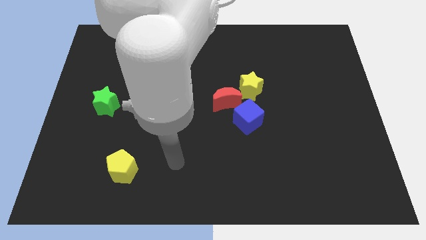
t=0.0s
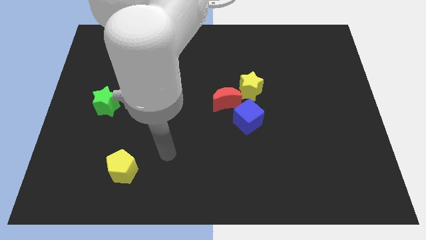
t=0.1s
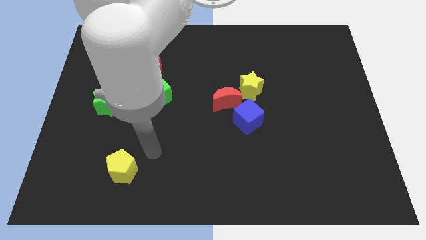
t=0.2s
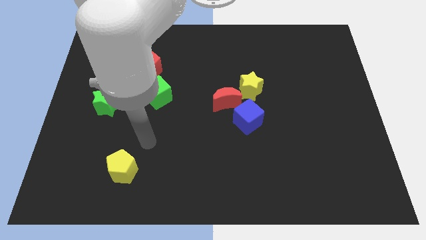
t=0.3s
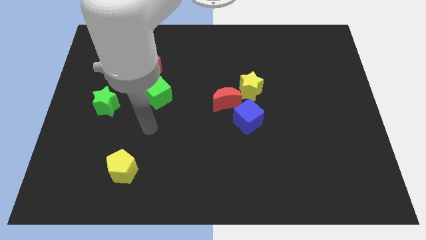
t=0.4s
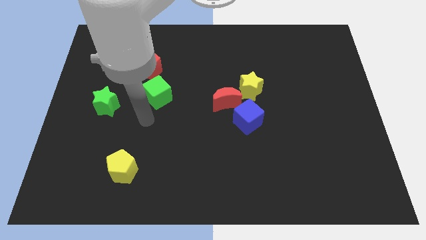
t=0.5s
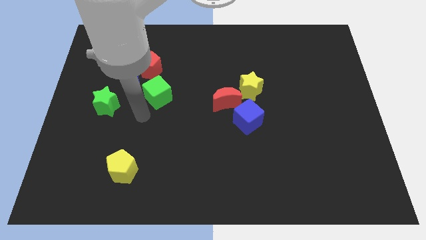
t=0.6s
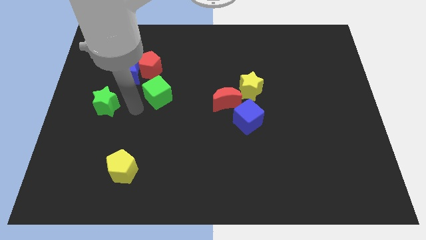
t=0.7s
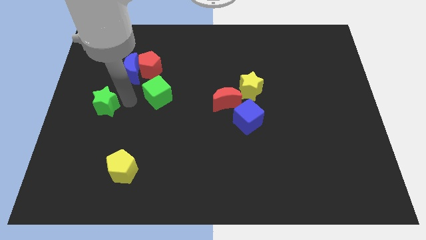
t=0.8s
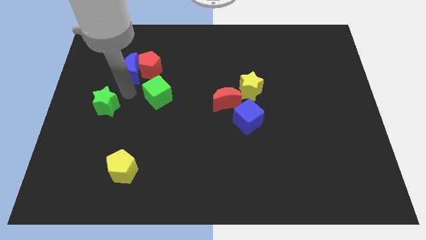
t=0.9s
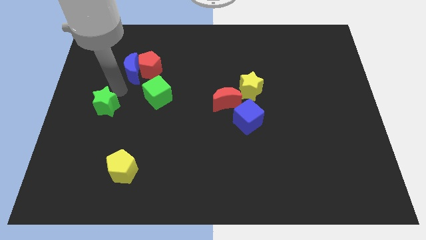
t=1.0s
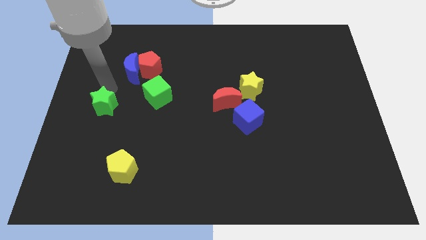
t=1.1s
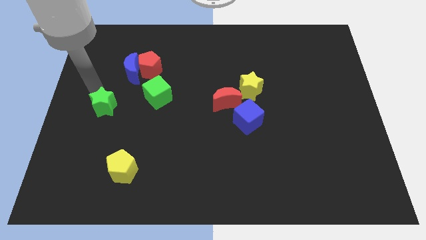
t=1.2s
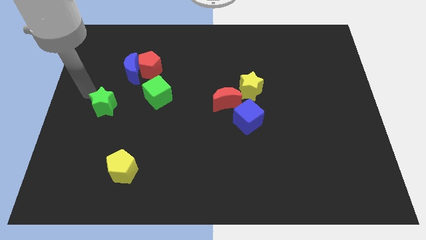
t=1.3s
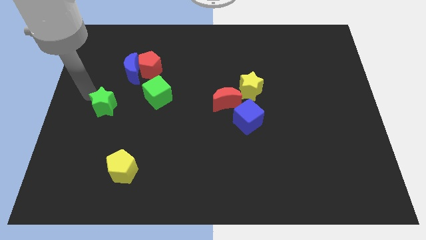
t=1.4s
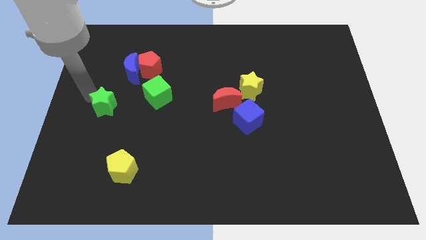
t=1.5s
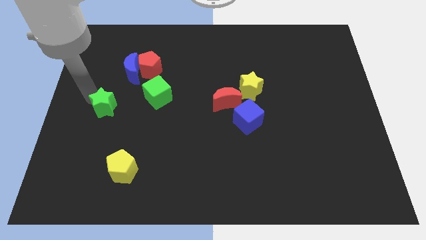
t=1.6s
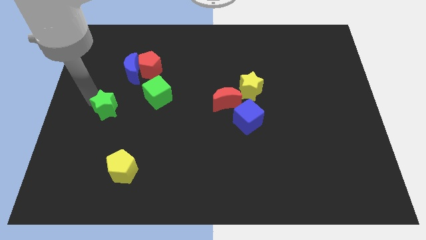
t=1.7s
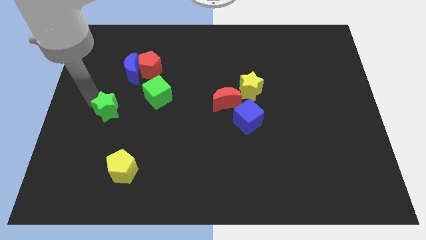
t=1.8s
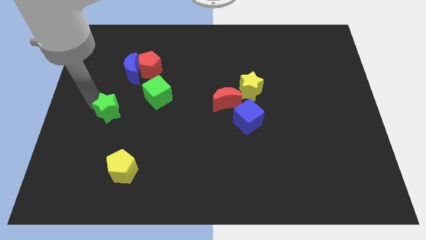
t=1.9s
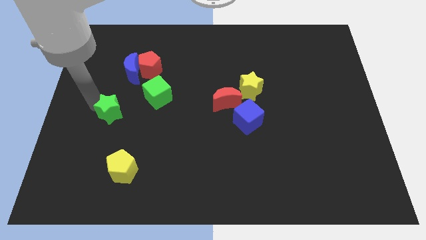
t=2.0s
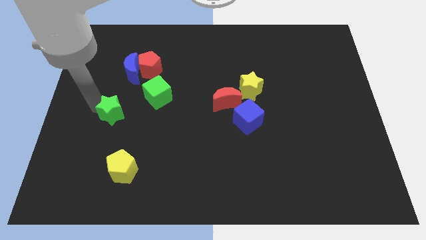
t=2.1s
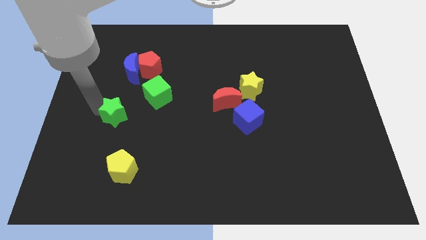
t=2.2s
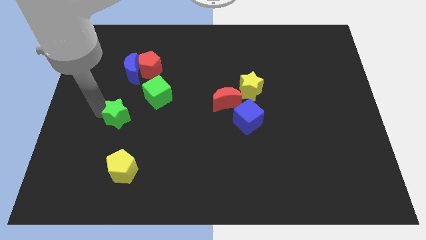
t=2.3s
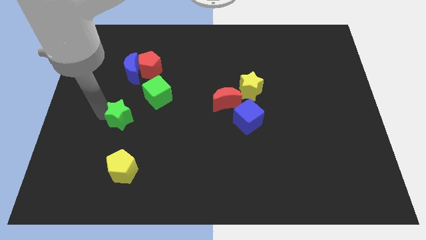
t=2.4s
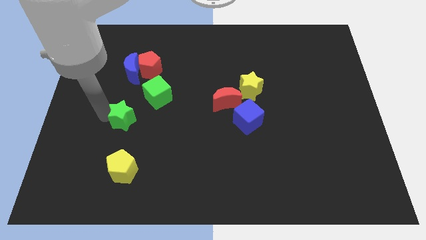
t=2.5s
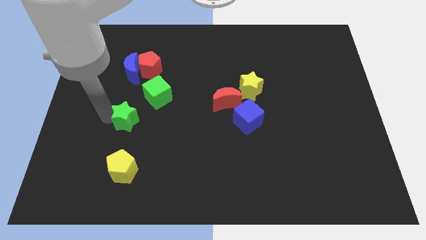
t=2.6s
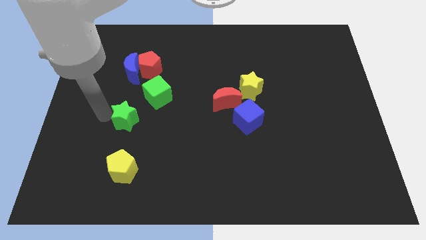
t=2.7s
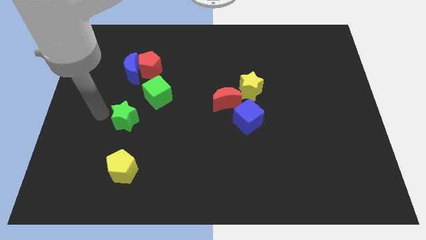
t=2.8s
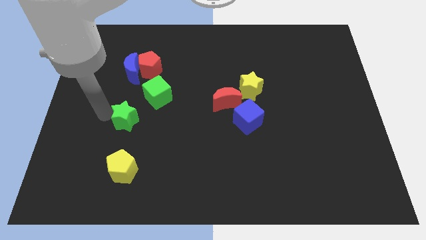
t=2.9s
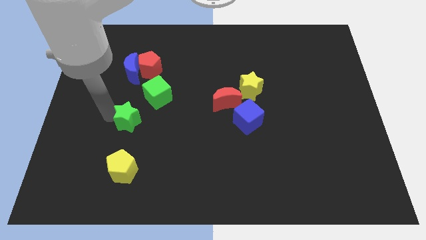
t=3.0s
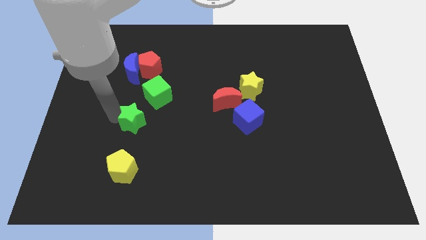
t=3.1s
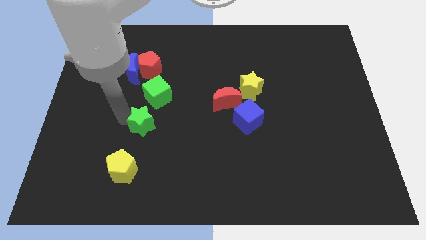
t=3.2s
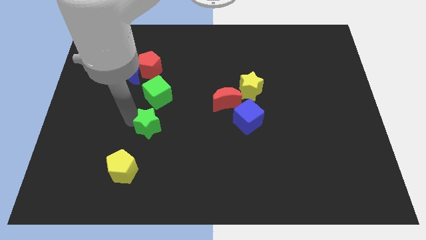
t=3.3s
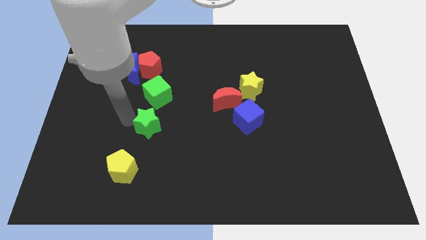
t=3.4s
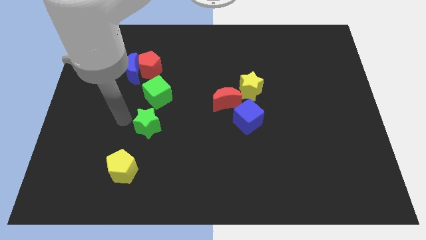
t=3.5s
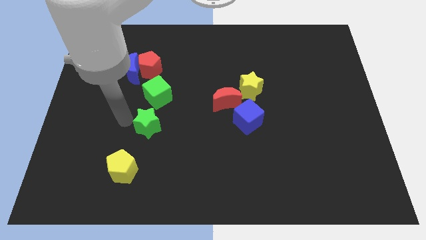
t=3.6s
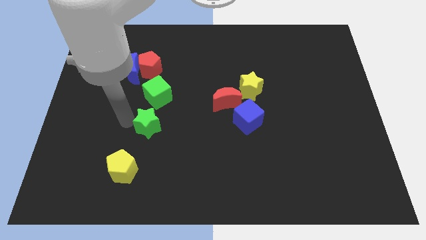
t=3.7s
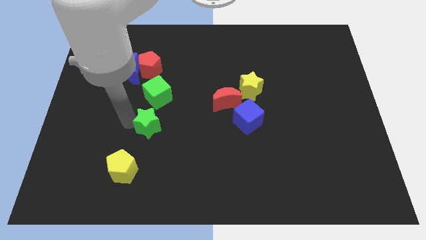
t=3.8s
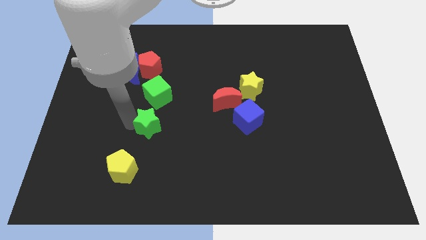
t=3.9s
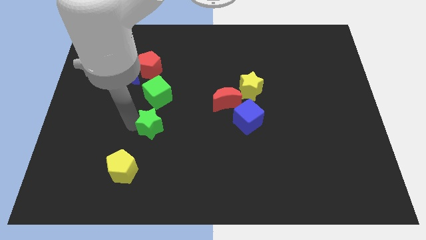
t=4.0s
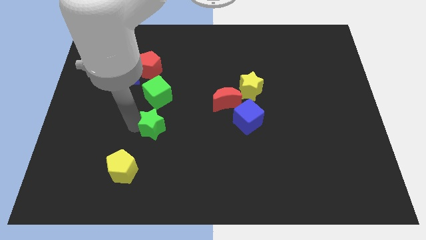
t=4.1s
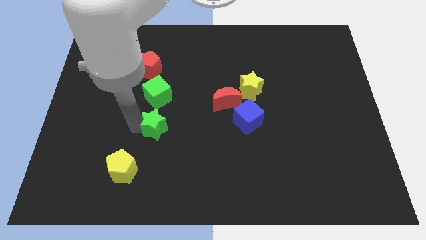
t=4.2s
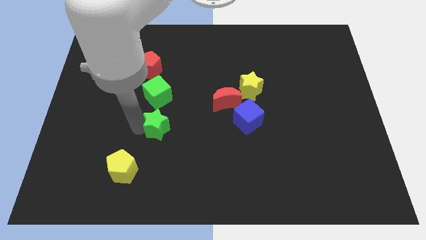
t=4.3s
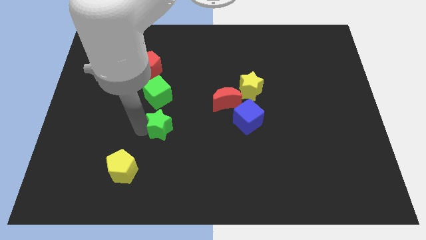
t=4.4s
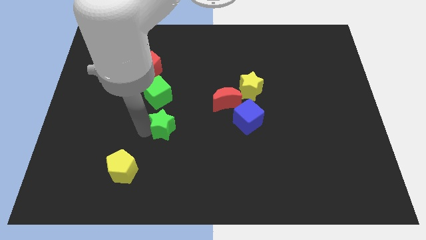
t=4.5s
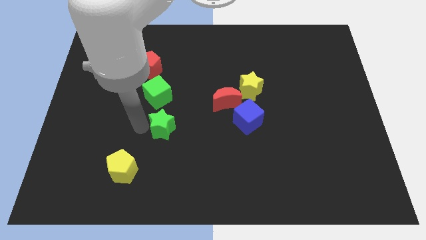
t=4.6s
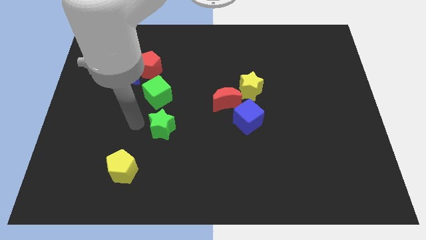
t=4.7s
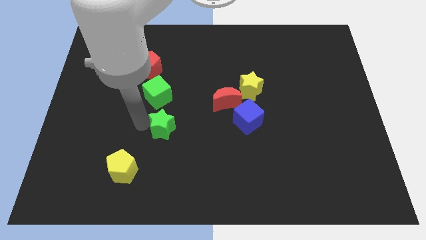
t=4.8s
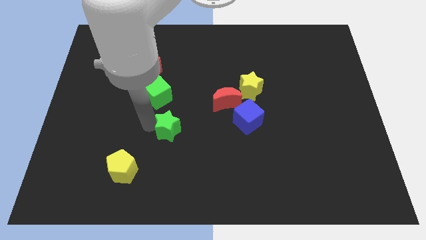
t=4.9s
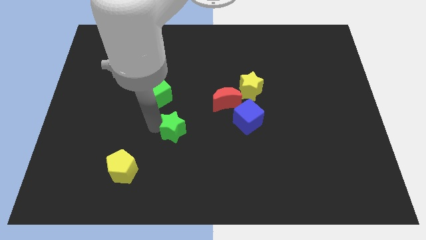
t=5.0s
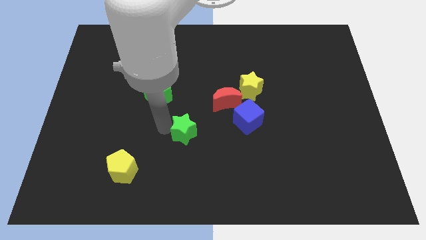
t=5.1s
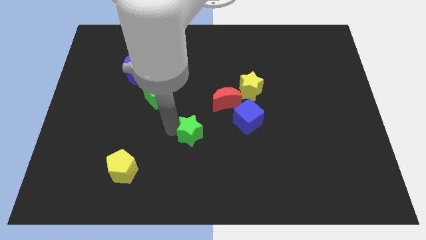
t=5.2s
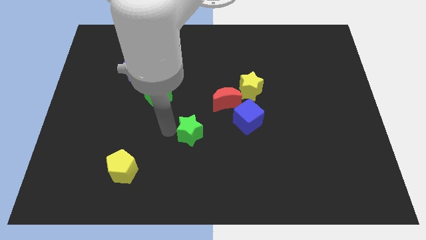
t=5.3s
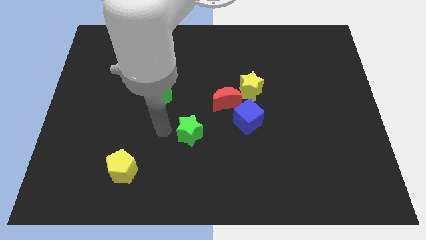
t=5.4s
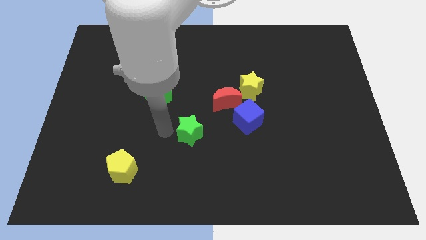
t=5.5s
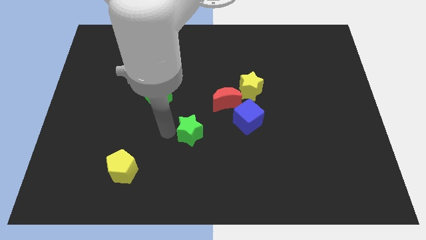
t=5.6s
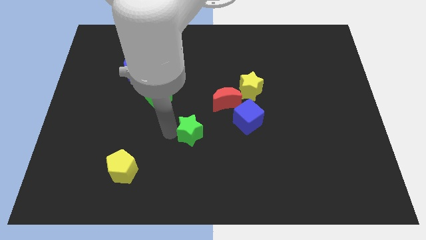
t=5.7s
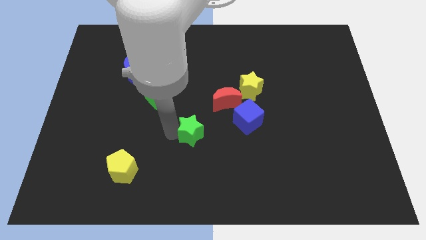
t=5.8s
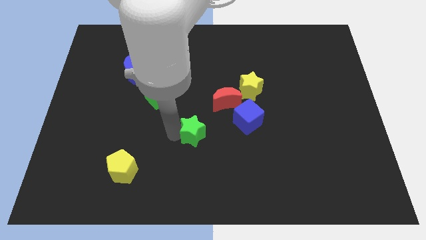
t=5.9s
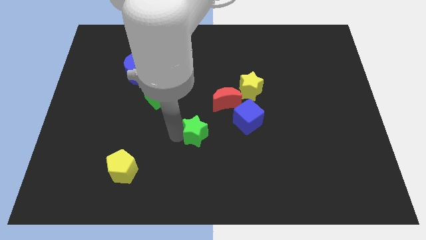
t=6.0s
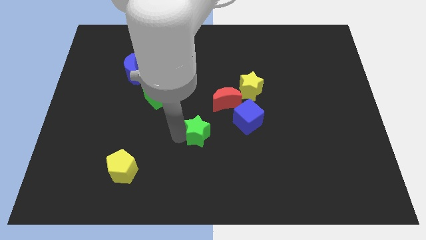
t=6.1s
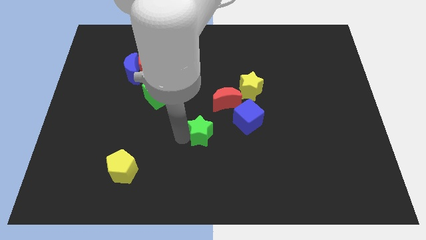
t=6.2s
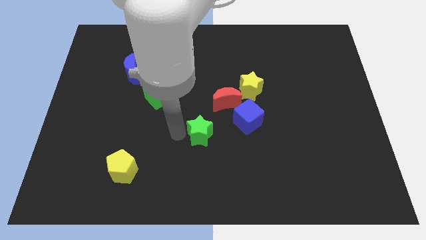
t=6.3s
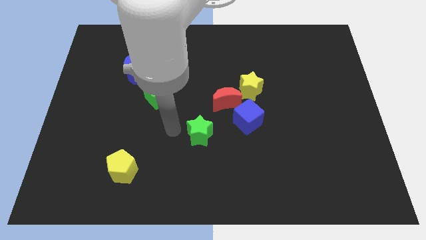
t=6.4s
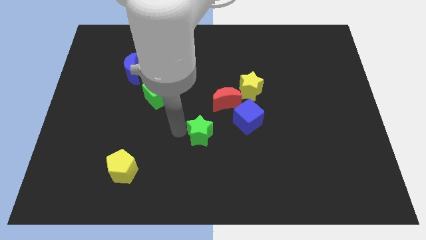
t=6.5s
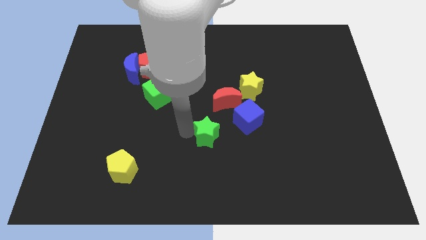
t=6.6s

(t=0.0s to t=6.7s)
slide the green star to the right

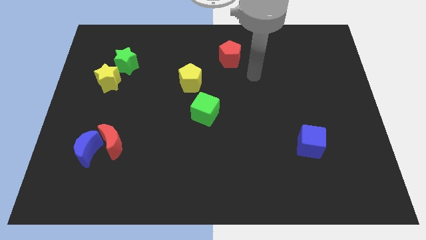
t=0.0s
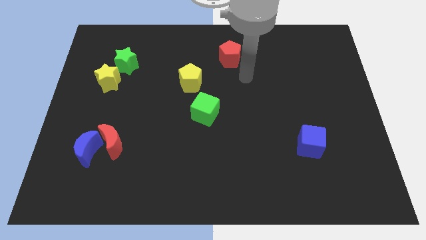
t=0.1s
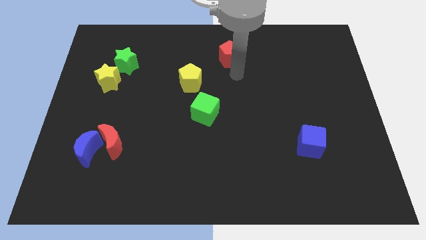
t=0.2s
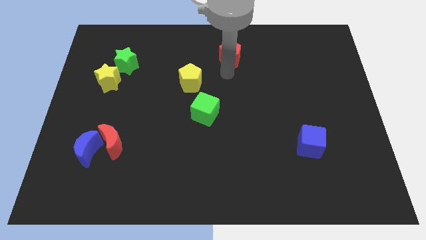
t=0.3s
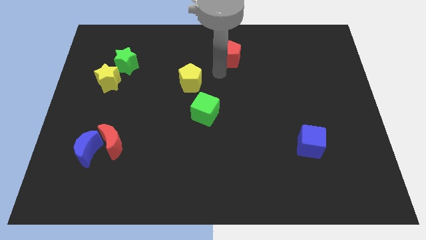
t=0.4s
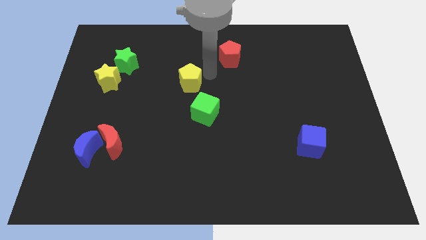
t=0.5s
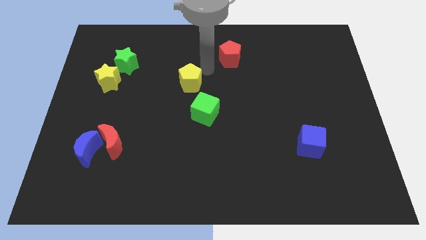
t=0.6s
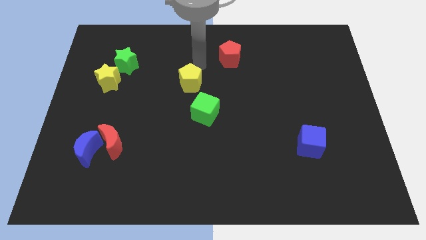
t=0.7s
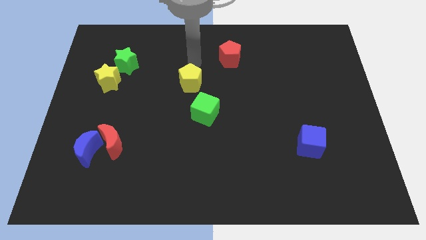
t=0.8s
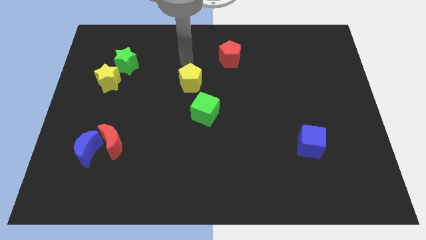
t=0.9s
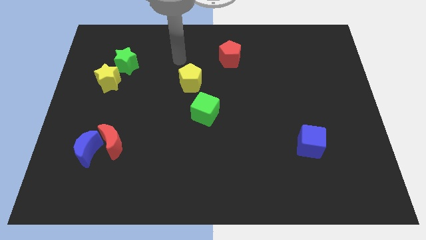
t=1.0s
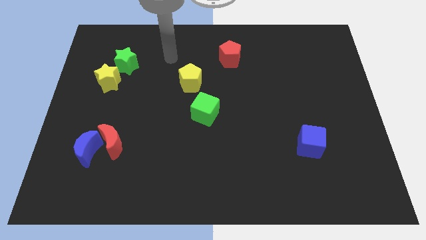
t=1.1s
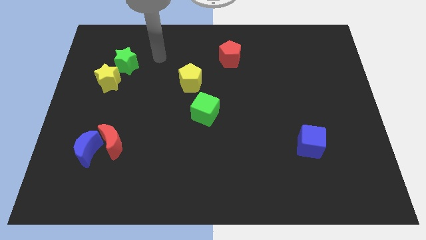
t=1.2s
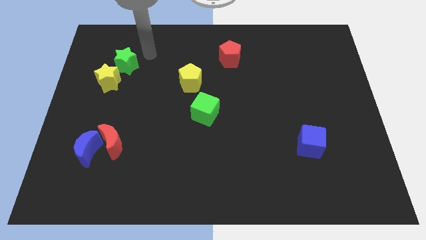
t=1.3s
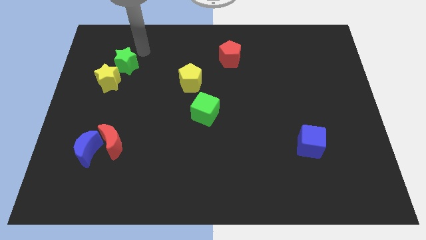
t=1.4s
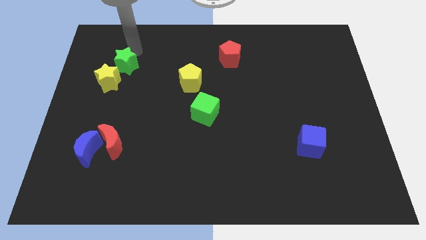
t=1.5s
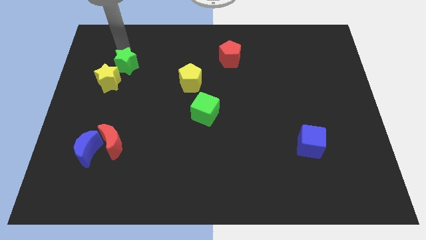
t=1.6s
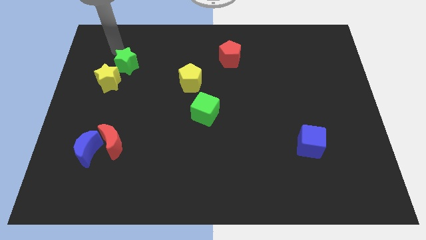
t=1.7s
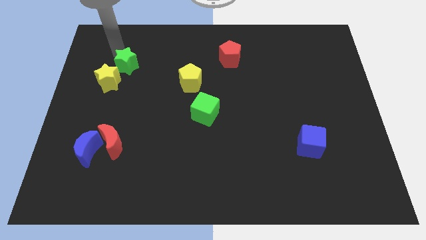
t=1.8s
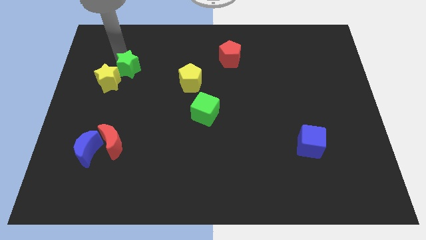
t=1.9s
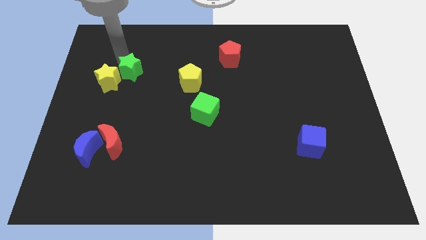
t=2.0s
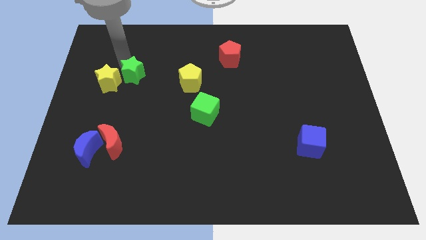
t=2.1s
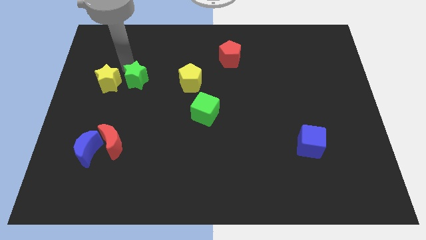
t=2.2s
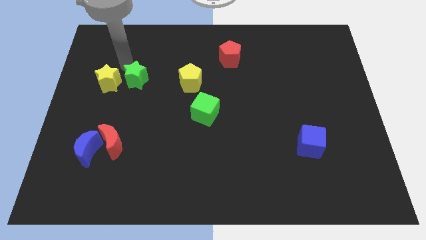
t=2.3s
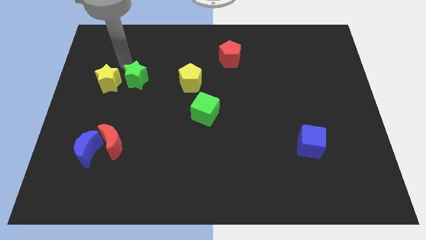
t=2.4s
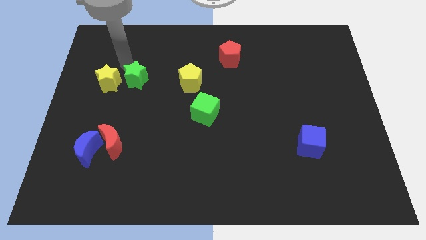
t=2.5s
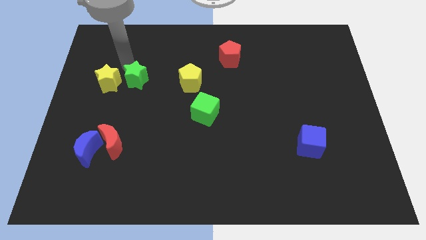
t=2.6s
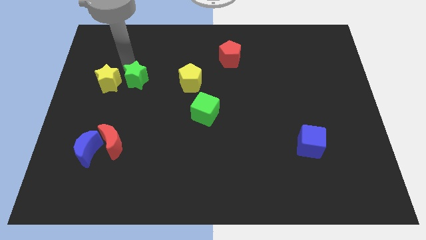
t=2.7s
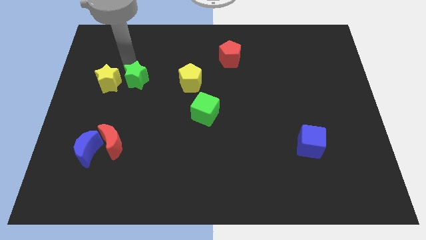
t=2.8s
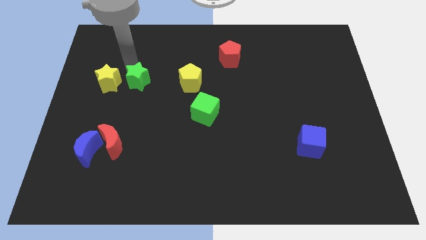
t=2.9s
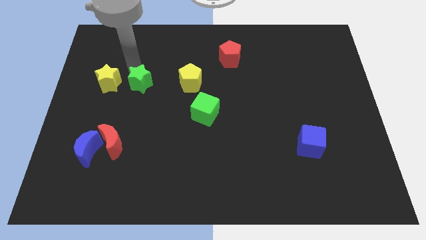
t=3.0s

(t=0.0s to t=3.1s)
push the green star a little bit downwards and then to the right
